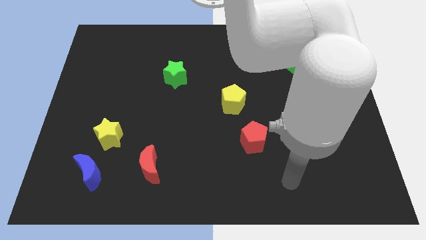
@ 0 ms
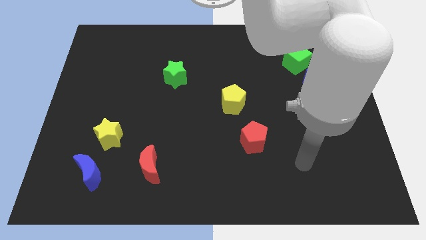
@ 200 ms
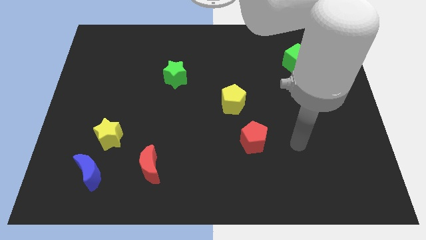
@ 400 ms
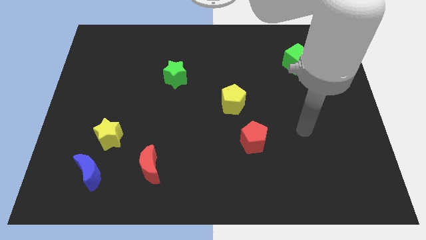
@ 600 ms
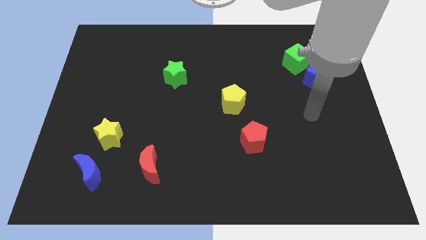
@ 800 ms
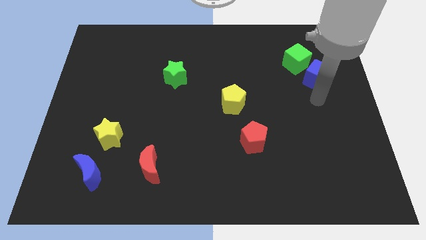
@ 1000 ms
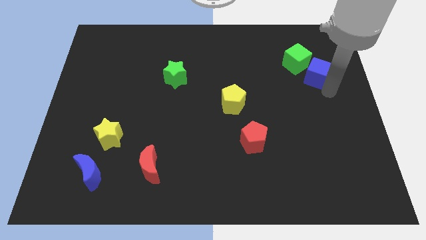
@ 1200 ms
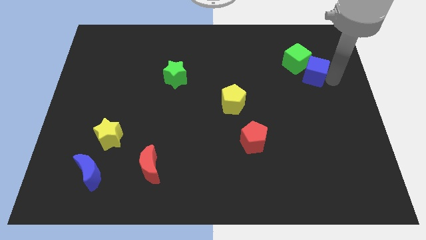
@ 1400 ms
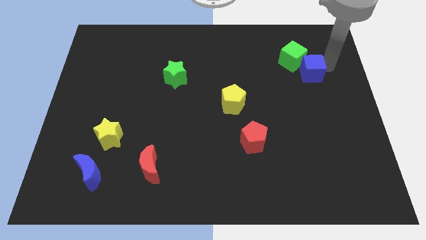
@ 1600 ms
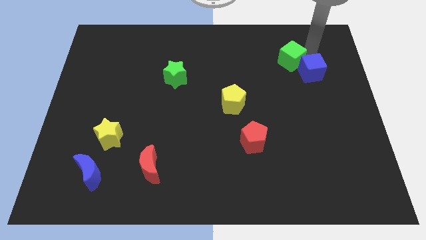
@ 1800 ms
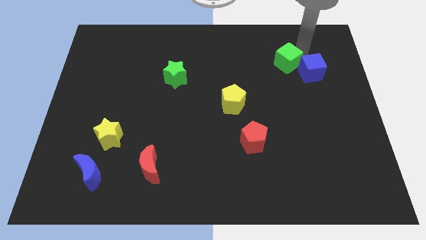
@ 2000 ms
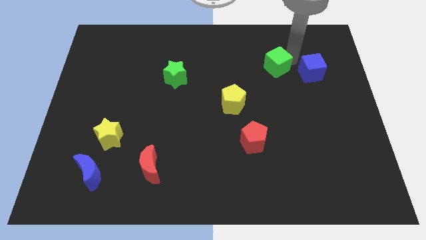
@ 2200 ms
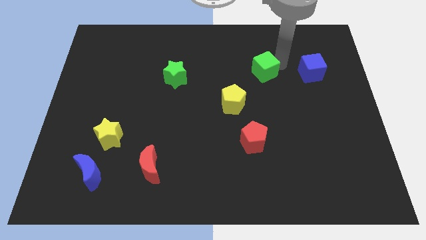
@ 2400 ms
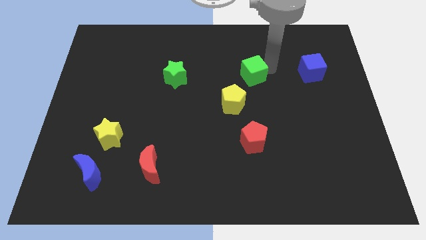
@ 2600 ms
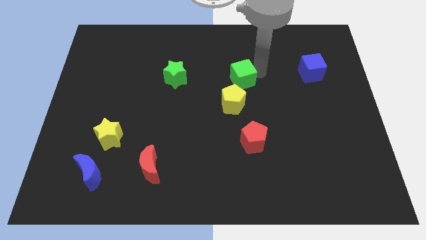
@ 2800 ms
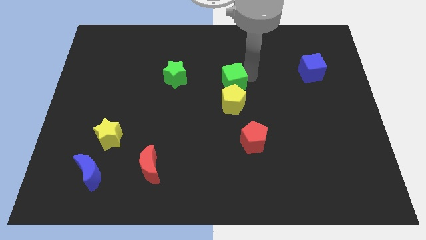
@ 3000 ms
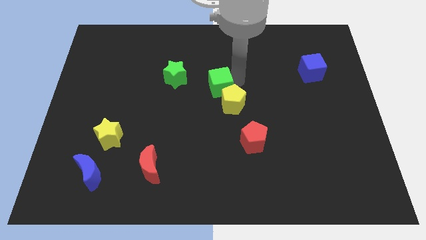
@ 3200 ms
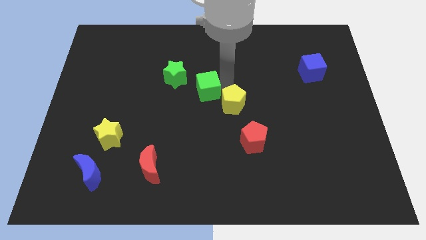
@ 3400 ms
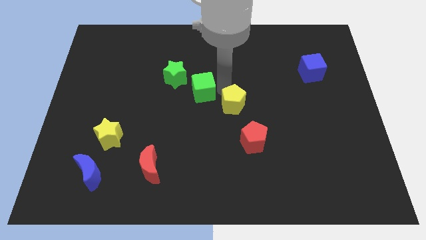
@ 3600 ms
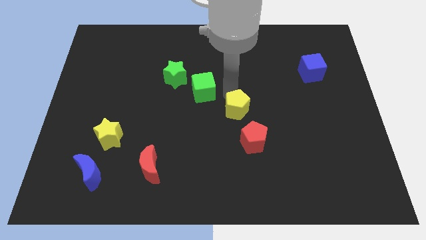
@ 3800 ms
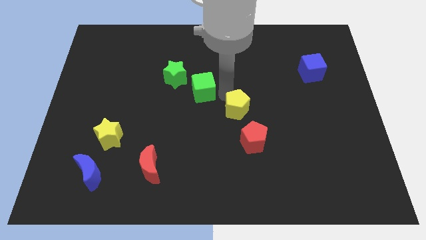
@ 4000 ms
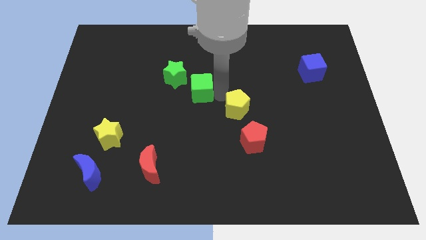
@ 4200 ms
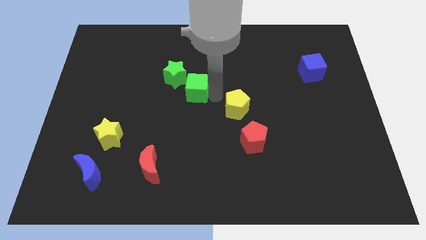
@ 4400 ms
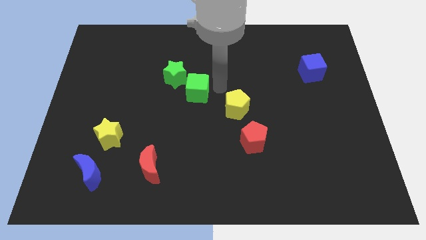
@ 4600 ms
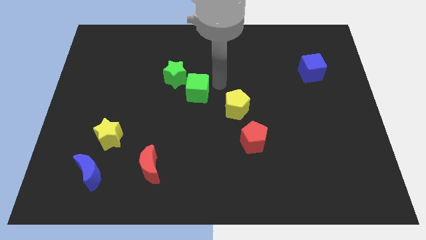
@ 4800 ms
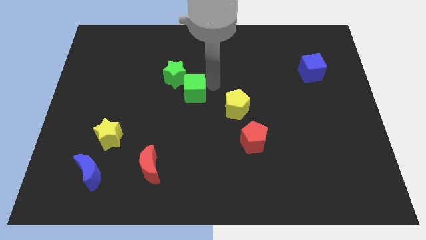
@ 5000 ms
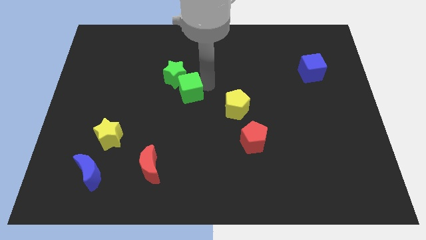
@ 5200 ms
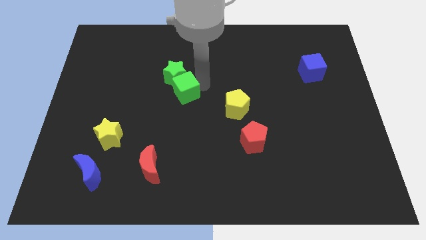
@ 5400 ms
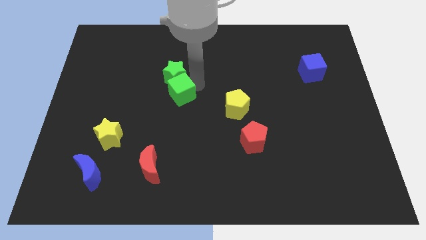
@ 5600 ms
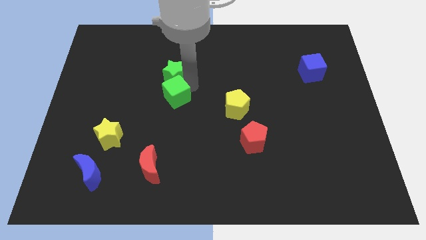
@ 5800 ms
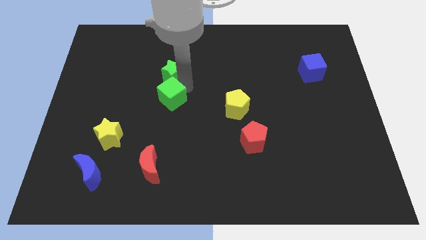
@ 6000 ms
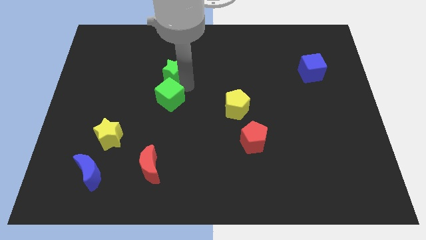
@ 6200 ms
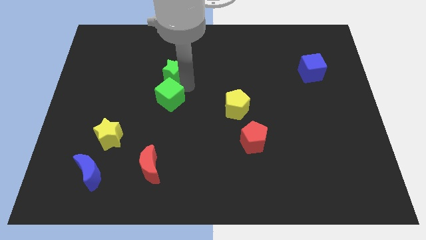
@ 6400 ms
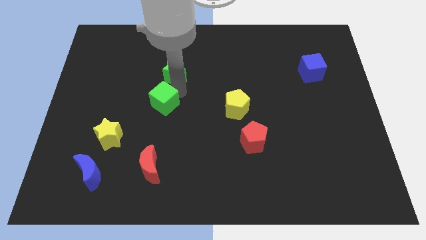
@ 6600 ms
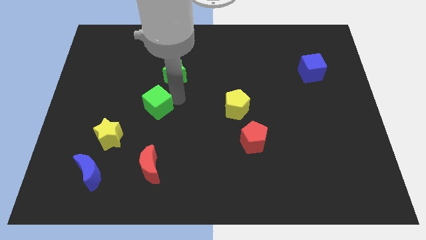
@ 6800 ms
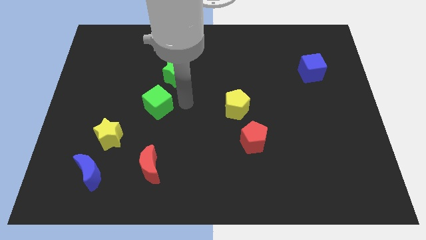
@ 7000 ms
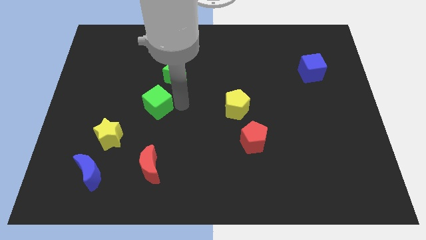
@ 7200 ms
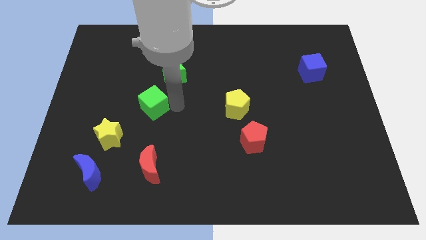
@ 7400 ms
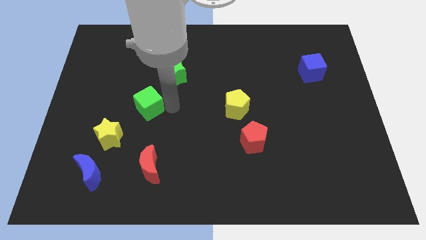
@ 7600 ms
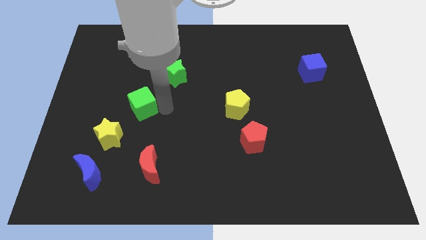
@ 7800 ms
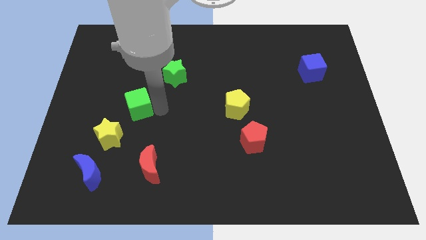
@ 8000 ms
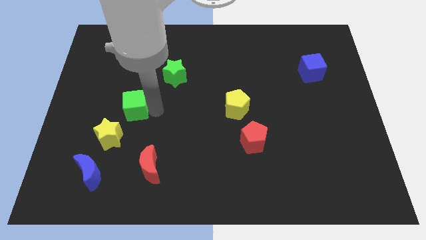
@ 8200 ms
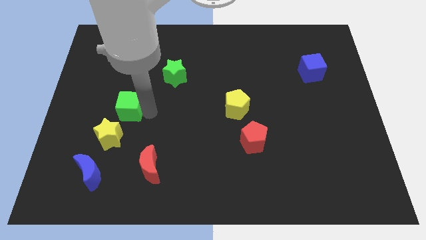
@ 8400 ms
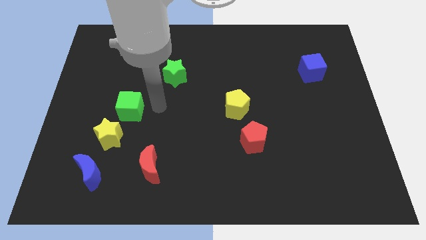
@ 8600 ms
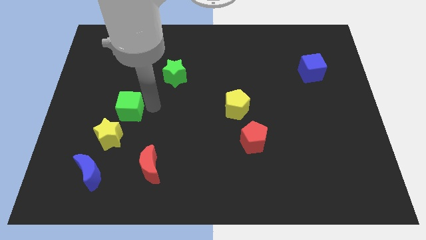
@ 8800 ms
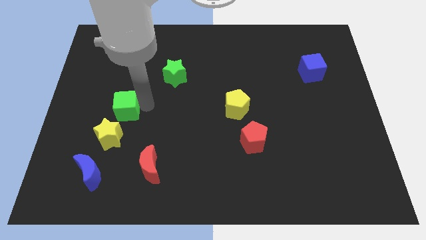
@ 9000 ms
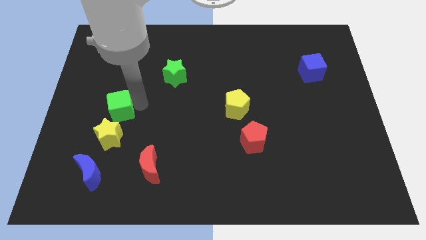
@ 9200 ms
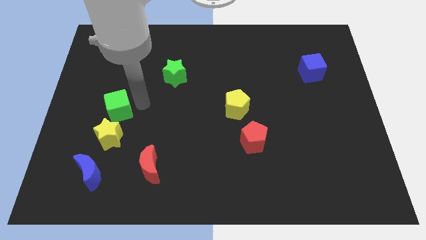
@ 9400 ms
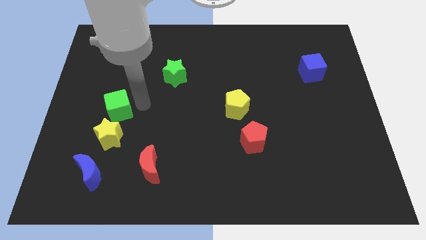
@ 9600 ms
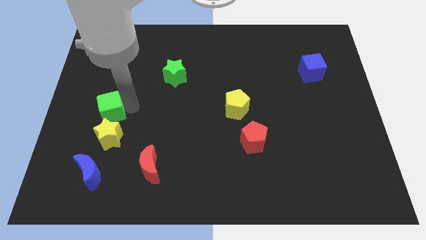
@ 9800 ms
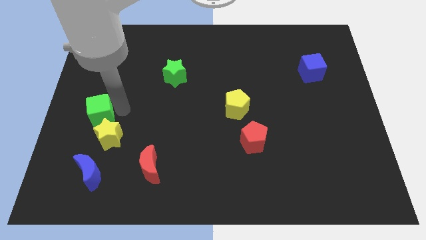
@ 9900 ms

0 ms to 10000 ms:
slide the green cube to the center left

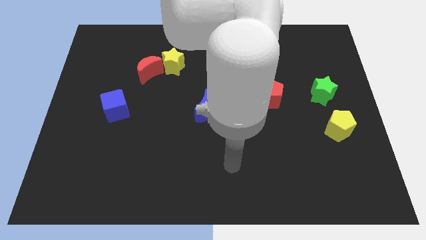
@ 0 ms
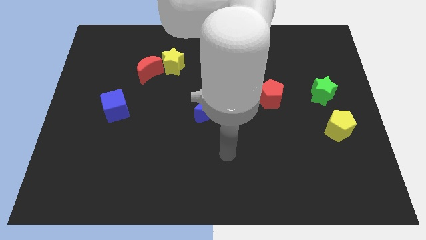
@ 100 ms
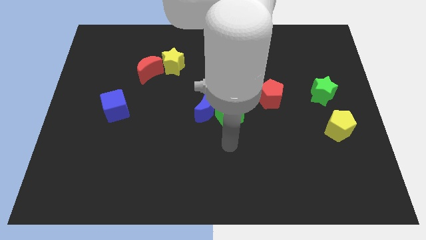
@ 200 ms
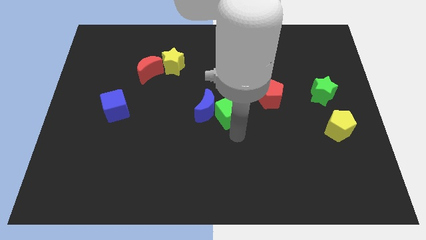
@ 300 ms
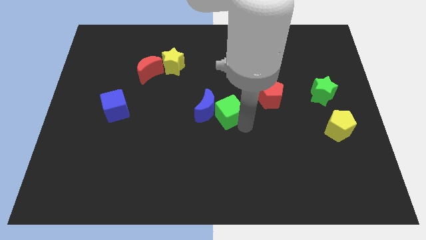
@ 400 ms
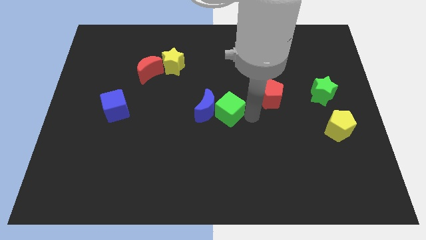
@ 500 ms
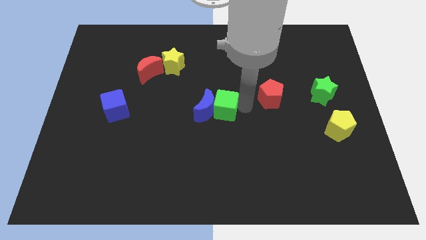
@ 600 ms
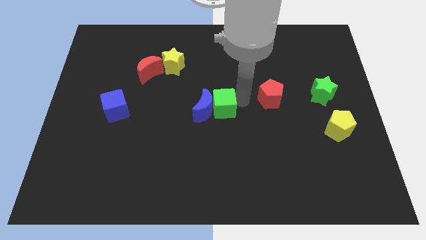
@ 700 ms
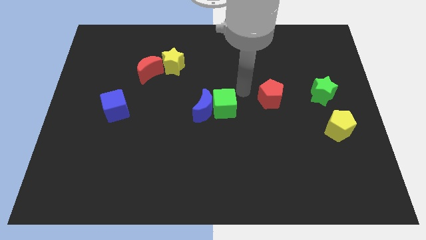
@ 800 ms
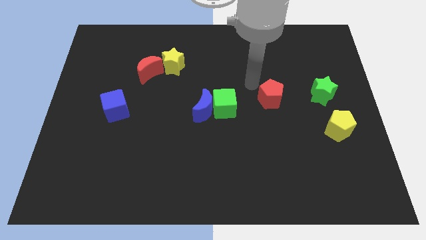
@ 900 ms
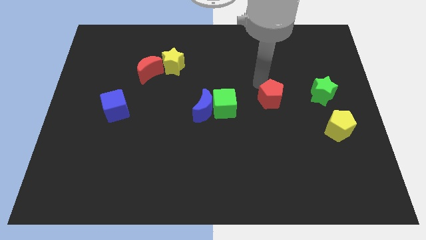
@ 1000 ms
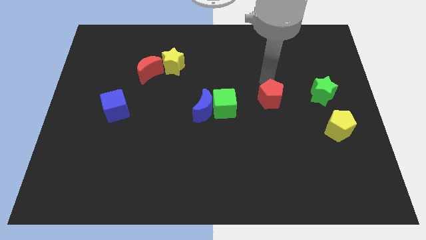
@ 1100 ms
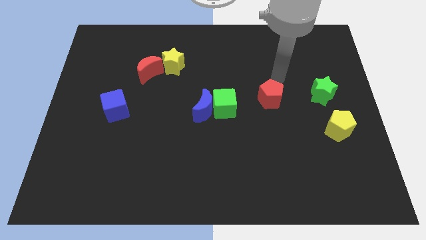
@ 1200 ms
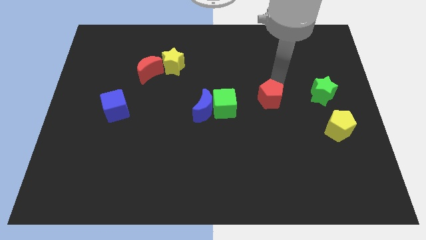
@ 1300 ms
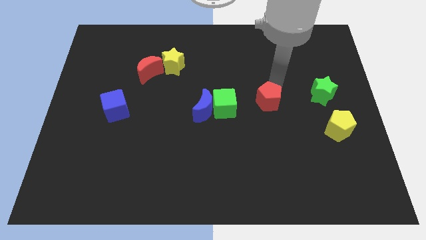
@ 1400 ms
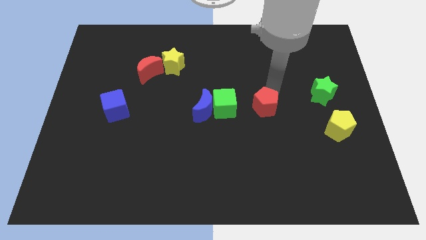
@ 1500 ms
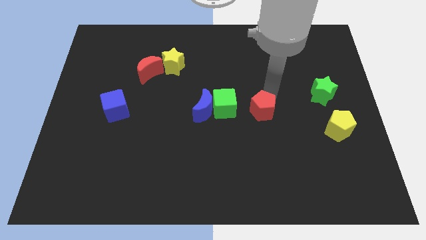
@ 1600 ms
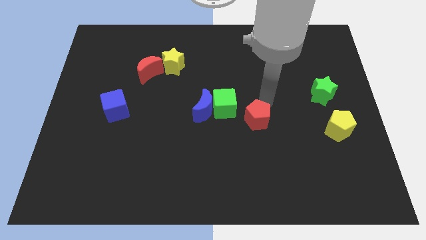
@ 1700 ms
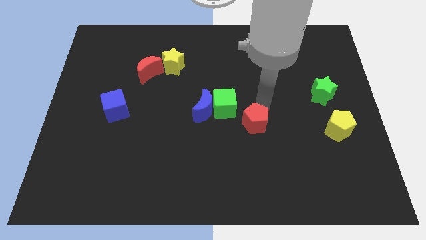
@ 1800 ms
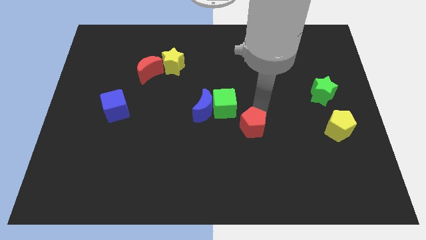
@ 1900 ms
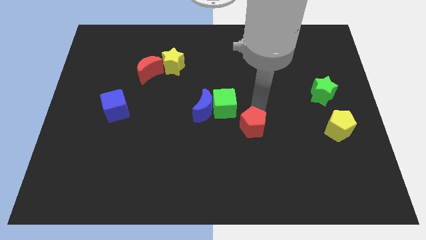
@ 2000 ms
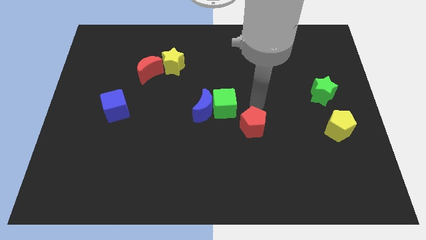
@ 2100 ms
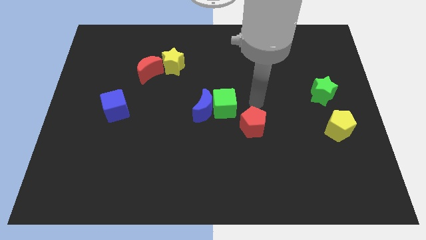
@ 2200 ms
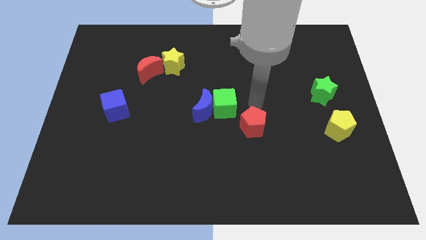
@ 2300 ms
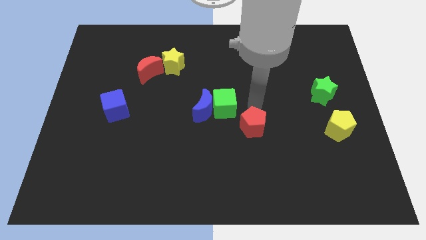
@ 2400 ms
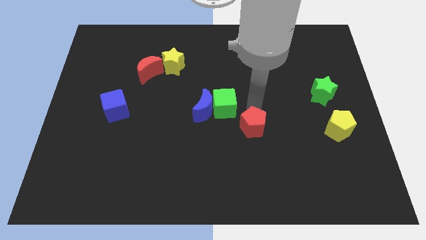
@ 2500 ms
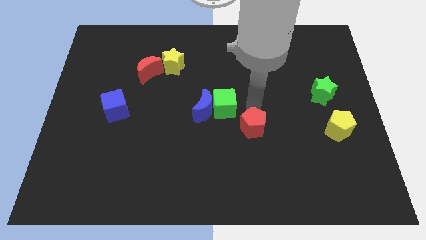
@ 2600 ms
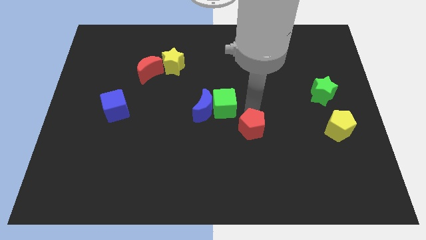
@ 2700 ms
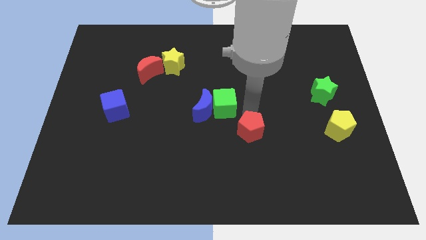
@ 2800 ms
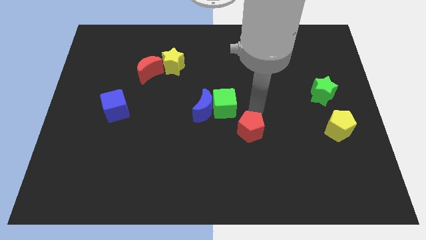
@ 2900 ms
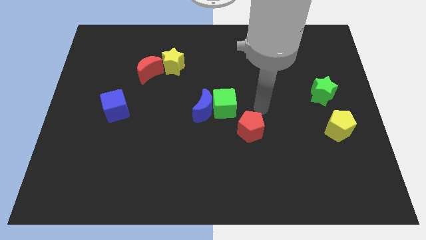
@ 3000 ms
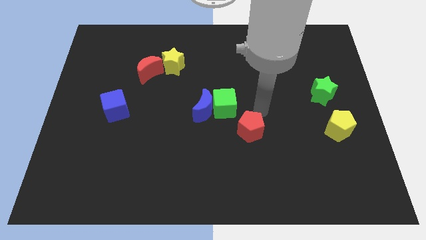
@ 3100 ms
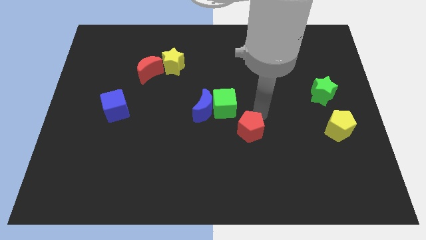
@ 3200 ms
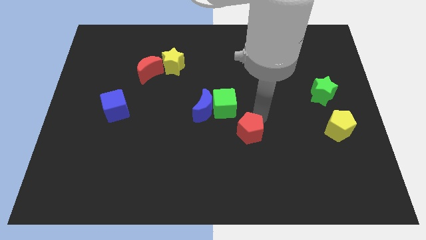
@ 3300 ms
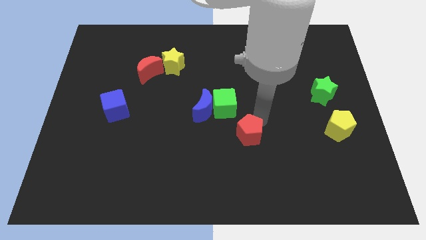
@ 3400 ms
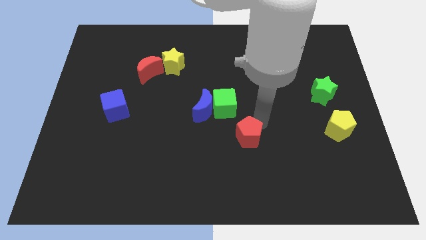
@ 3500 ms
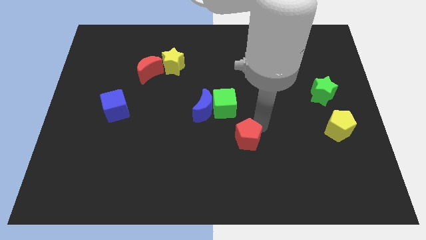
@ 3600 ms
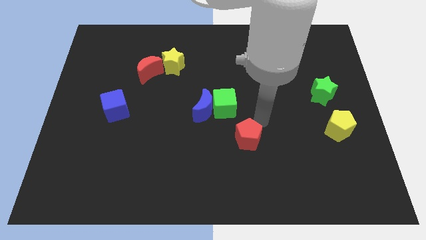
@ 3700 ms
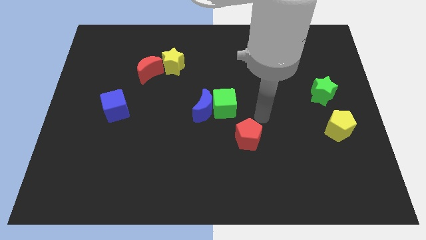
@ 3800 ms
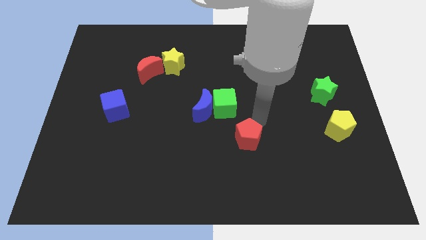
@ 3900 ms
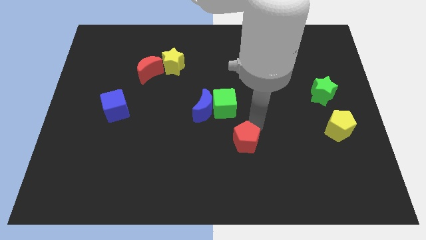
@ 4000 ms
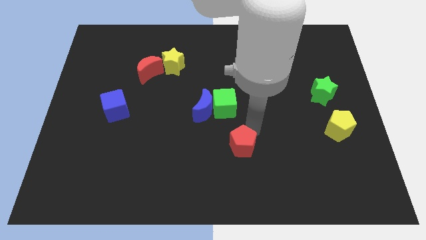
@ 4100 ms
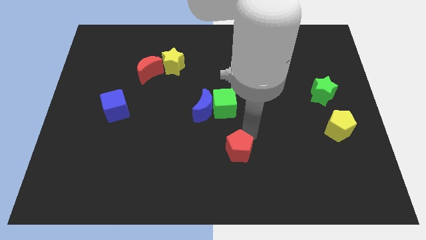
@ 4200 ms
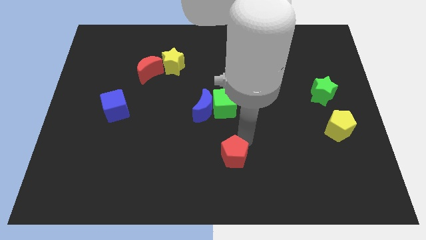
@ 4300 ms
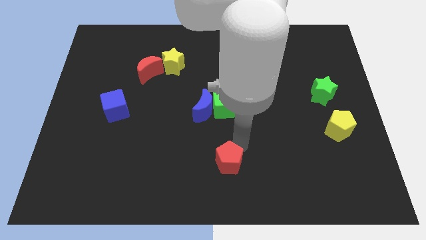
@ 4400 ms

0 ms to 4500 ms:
push the red pentagon to the bottom side
